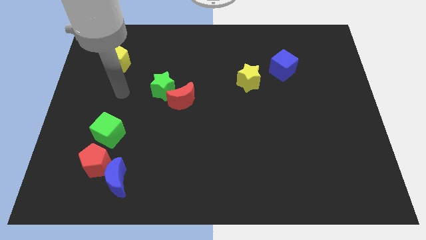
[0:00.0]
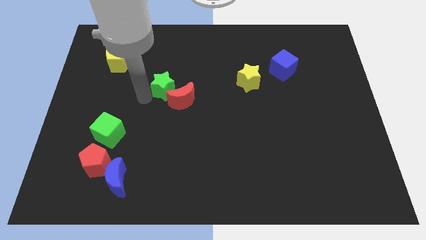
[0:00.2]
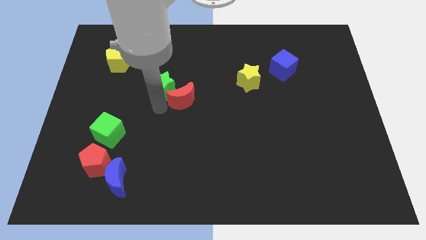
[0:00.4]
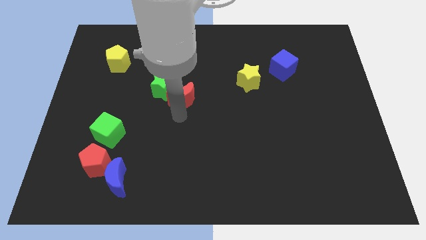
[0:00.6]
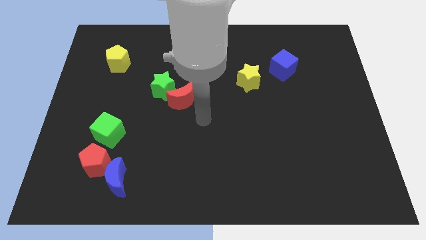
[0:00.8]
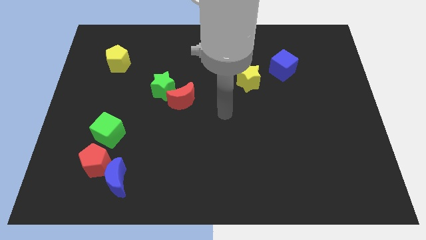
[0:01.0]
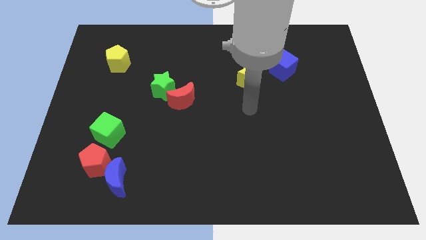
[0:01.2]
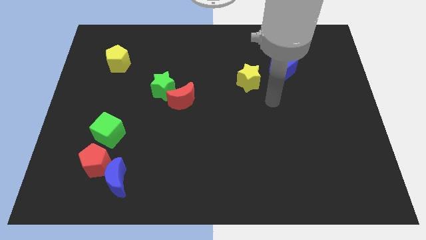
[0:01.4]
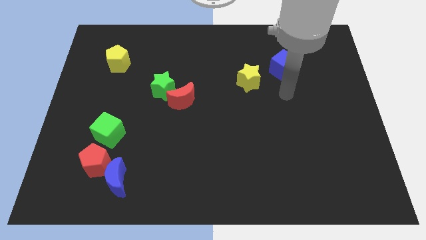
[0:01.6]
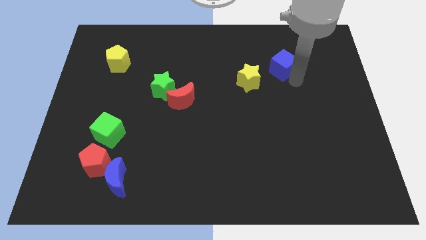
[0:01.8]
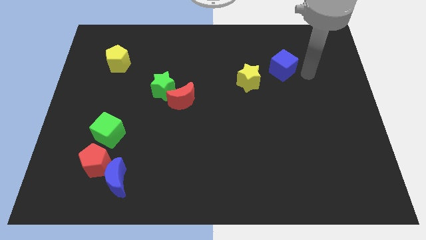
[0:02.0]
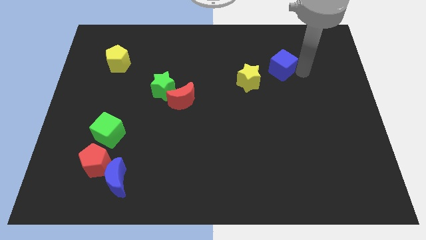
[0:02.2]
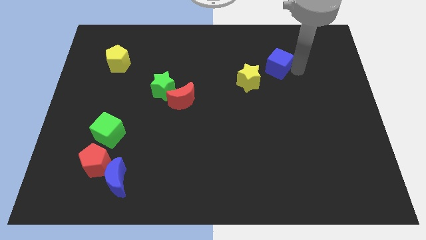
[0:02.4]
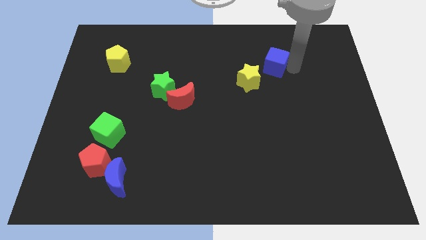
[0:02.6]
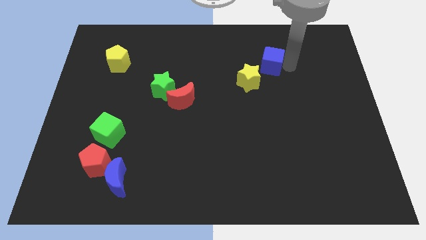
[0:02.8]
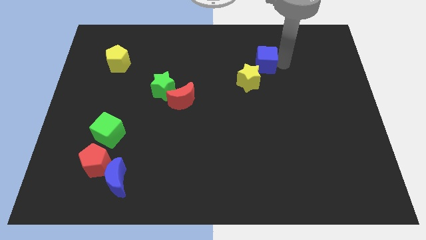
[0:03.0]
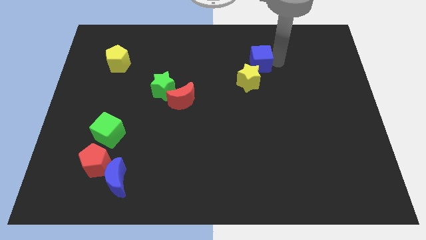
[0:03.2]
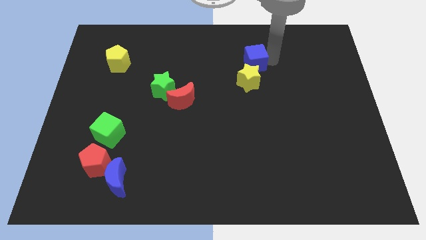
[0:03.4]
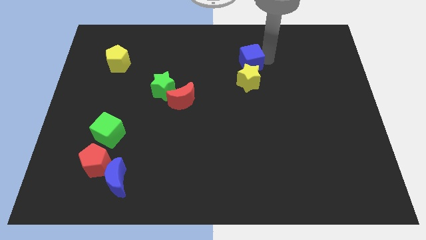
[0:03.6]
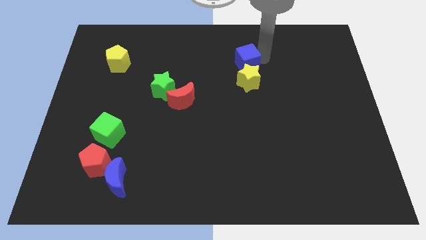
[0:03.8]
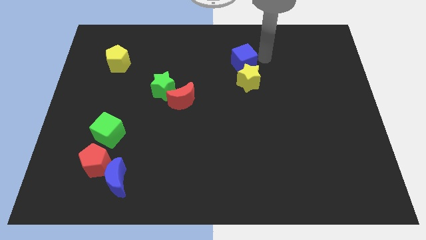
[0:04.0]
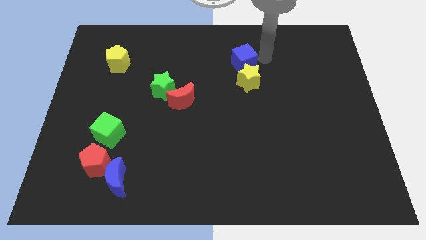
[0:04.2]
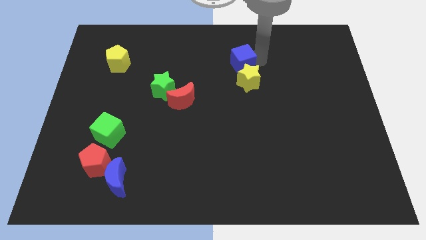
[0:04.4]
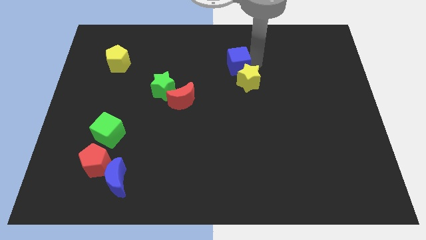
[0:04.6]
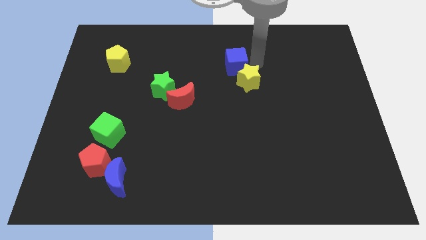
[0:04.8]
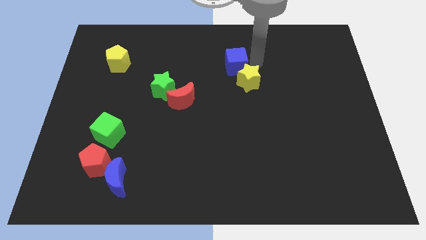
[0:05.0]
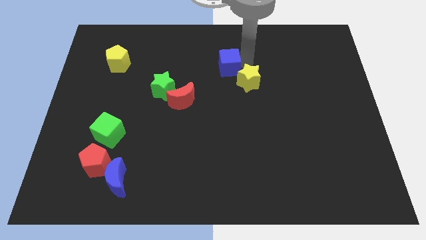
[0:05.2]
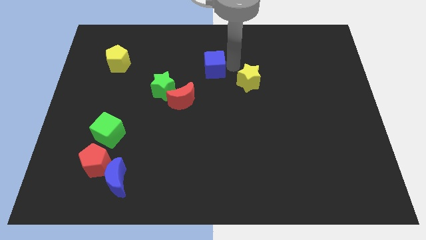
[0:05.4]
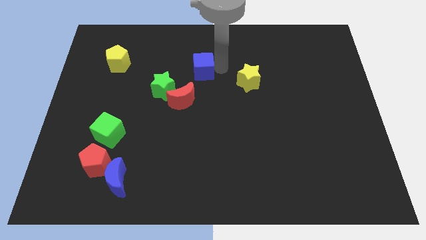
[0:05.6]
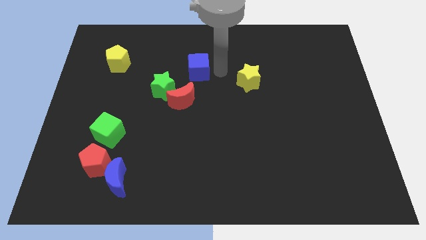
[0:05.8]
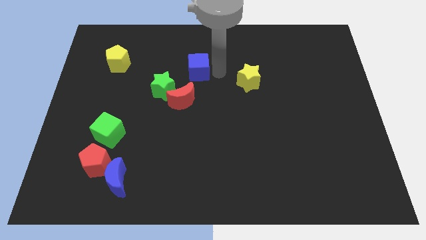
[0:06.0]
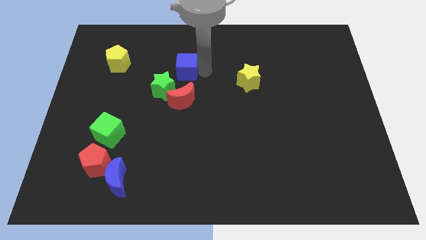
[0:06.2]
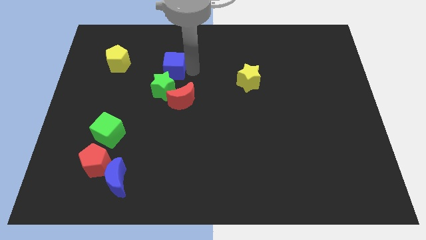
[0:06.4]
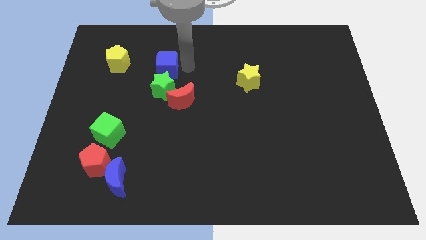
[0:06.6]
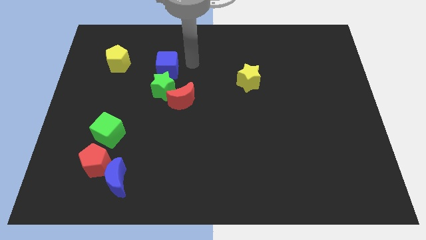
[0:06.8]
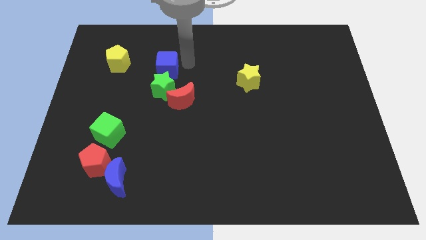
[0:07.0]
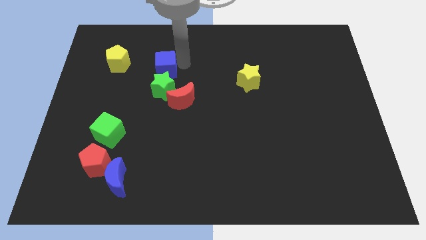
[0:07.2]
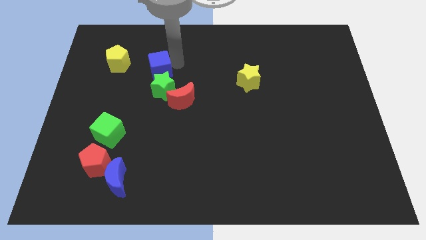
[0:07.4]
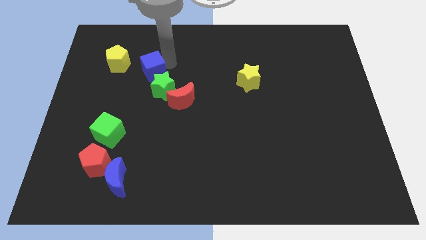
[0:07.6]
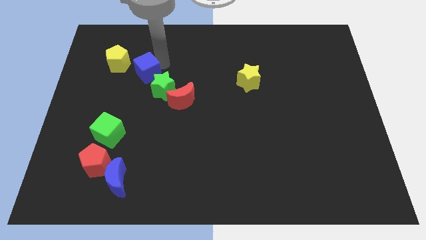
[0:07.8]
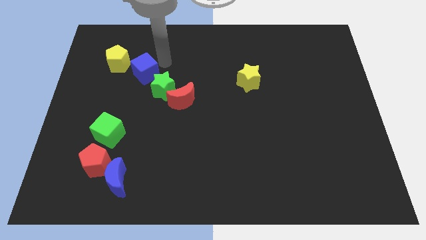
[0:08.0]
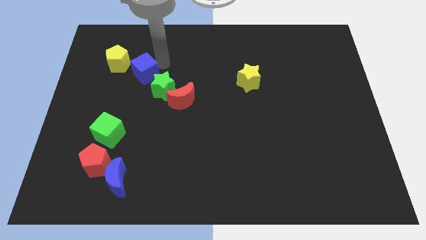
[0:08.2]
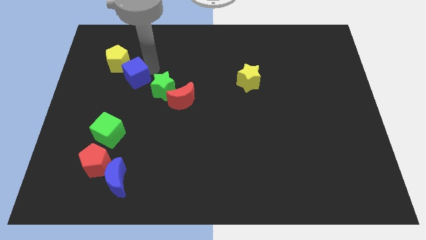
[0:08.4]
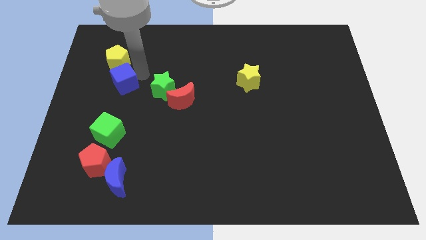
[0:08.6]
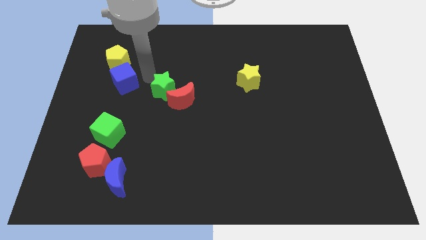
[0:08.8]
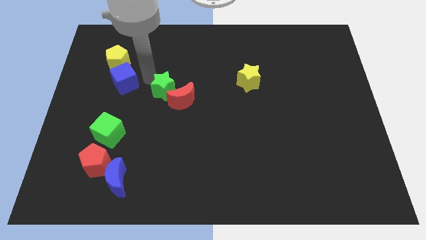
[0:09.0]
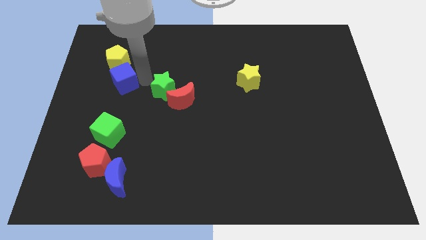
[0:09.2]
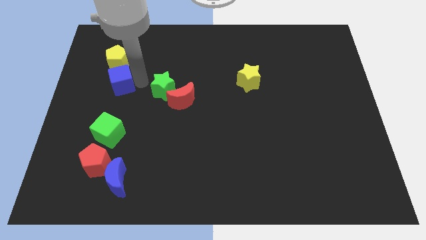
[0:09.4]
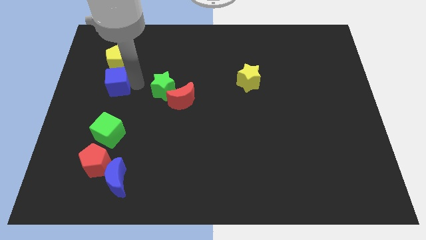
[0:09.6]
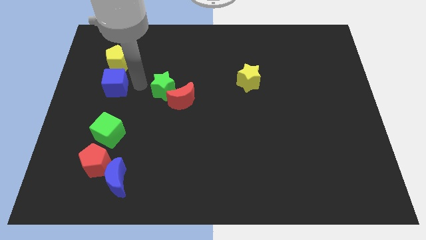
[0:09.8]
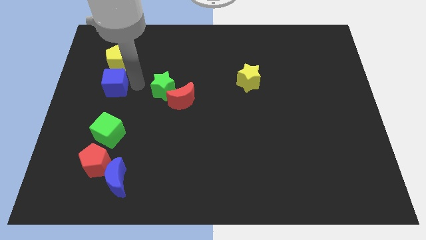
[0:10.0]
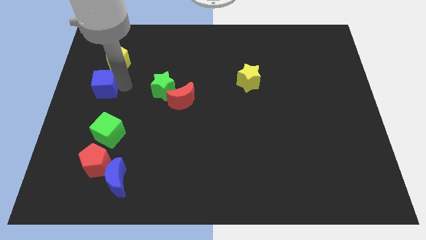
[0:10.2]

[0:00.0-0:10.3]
push the blue cube to the center left

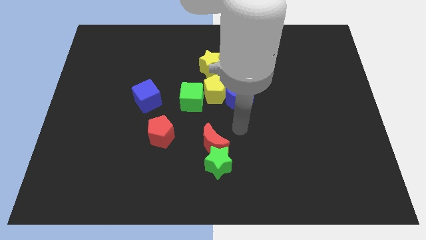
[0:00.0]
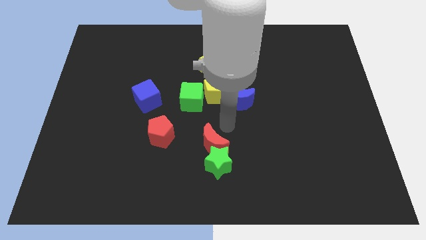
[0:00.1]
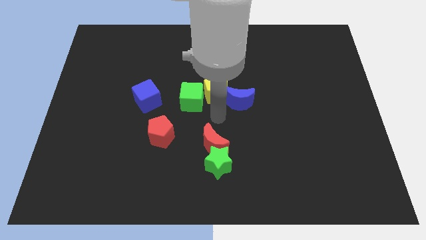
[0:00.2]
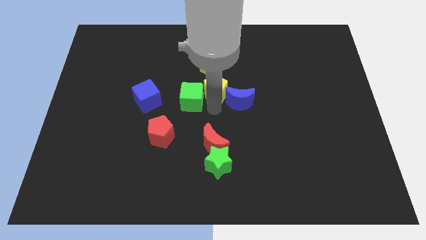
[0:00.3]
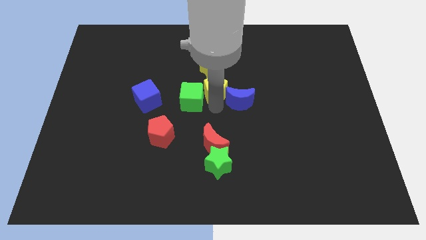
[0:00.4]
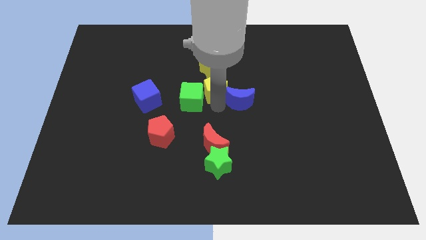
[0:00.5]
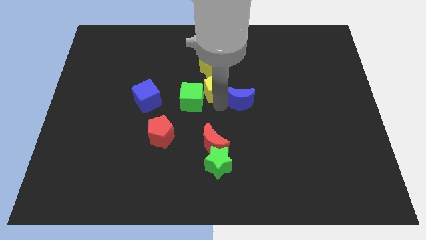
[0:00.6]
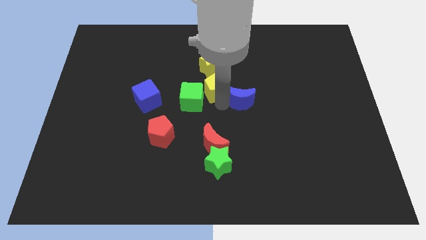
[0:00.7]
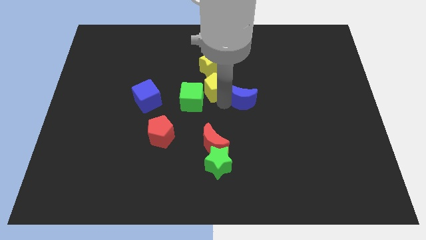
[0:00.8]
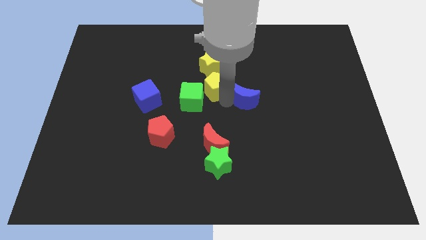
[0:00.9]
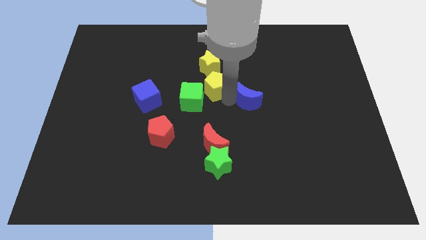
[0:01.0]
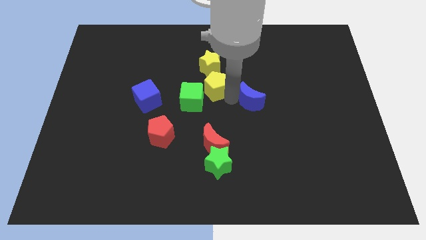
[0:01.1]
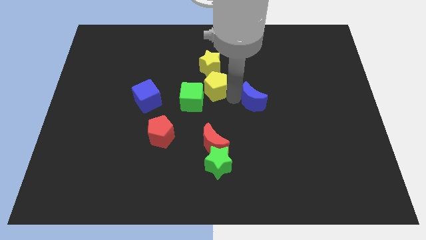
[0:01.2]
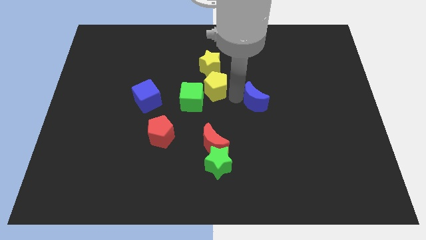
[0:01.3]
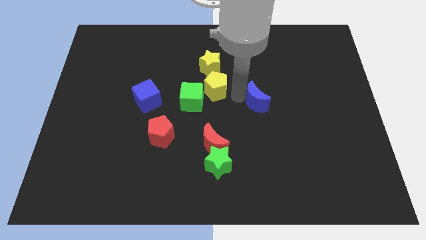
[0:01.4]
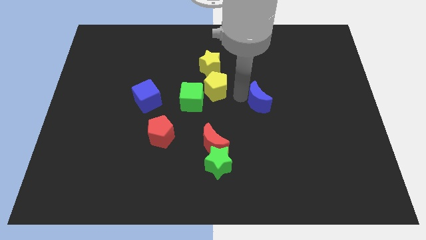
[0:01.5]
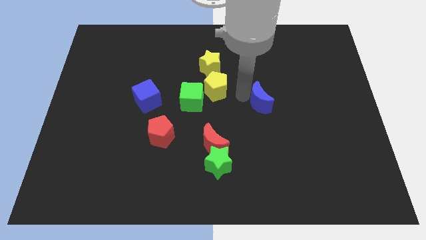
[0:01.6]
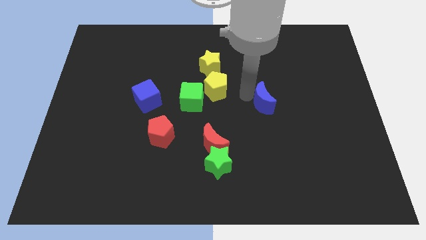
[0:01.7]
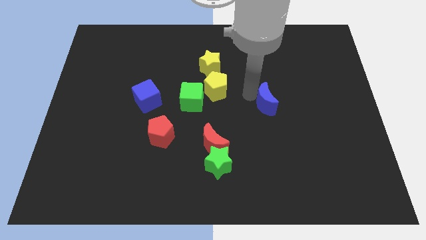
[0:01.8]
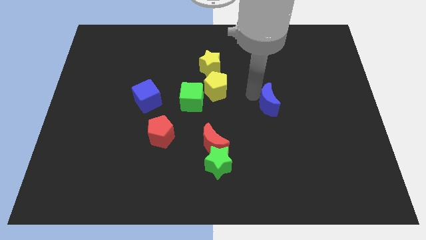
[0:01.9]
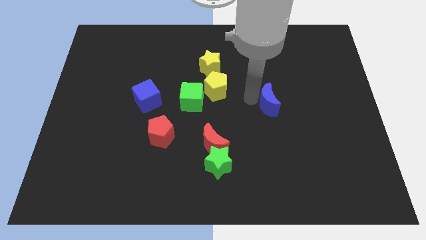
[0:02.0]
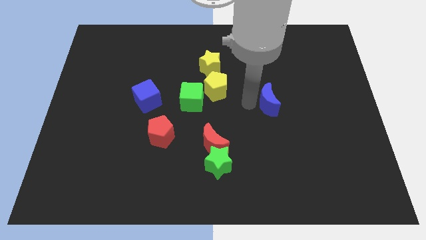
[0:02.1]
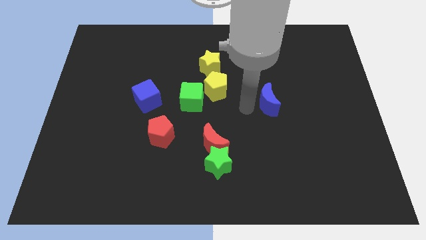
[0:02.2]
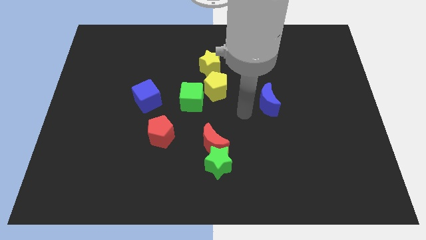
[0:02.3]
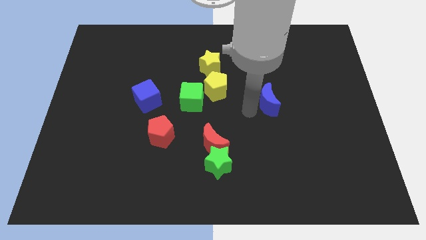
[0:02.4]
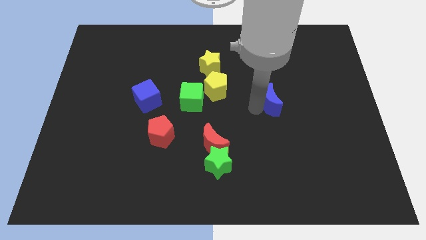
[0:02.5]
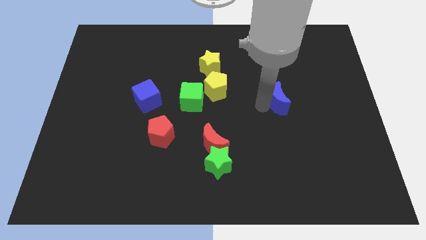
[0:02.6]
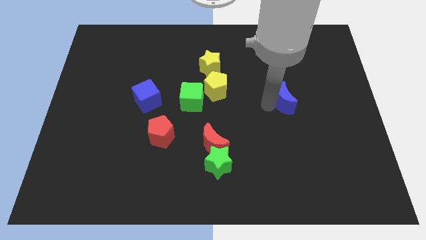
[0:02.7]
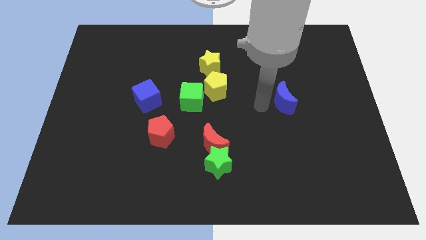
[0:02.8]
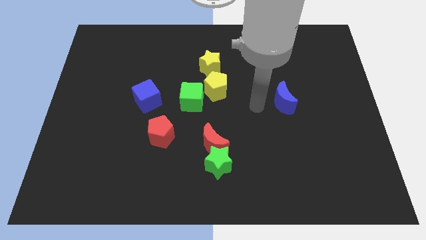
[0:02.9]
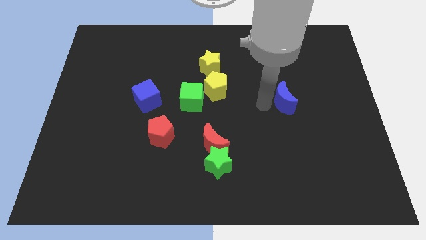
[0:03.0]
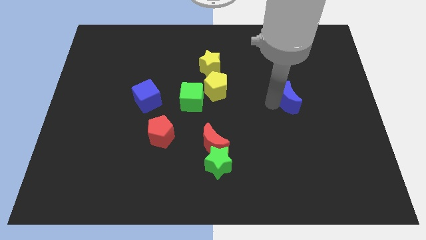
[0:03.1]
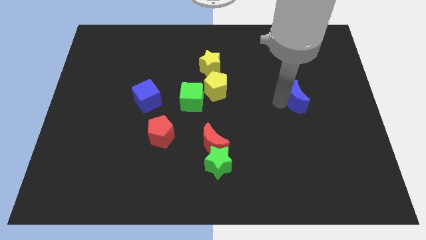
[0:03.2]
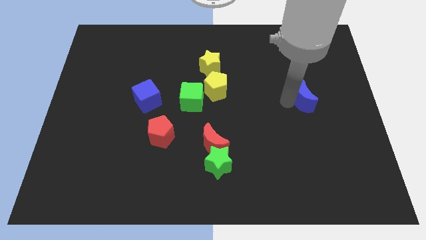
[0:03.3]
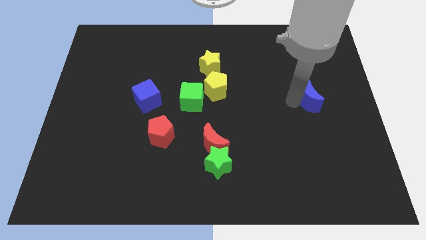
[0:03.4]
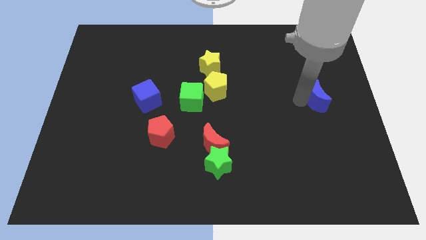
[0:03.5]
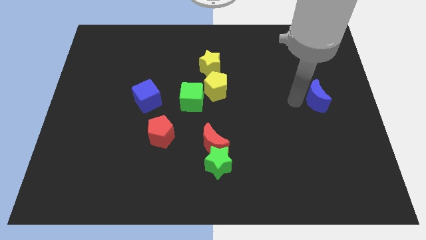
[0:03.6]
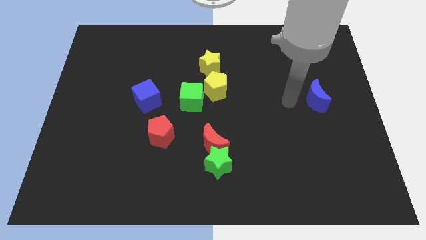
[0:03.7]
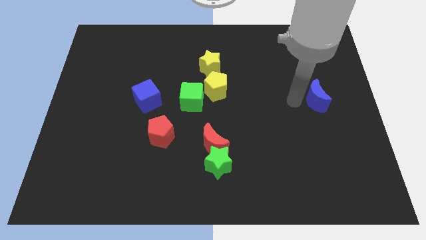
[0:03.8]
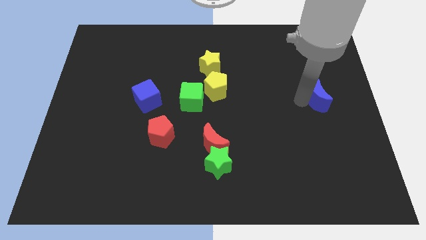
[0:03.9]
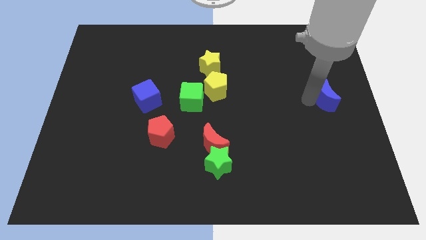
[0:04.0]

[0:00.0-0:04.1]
put the blue moon to the center right
